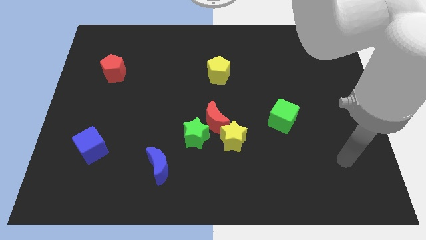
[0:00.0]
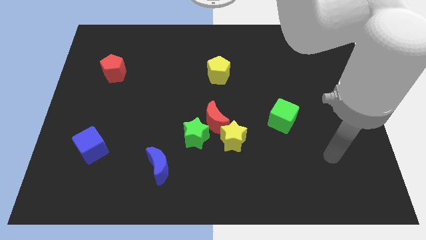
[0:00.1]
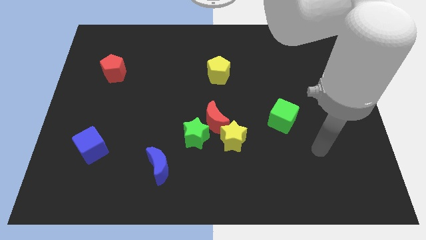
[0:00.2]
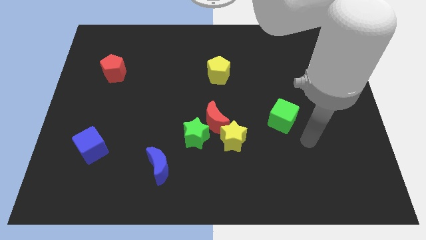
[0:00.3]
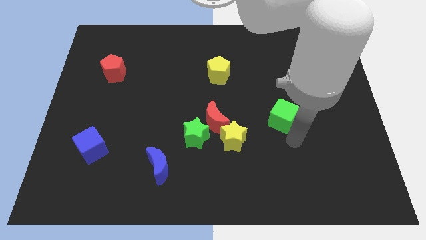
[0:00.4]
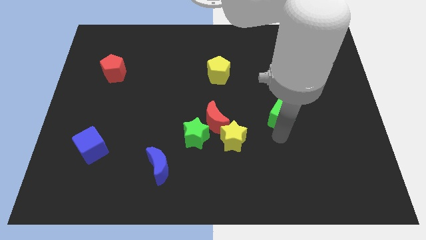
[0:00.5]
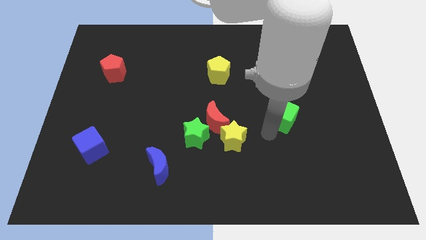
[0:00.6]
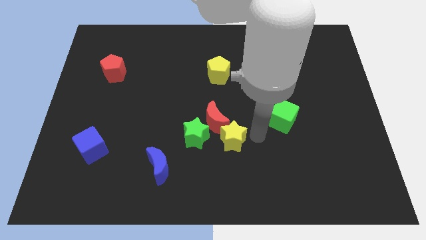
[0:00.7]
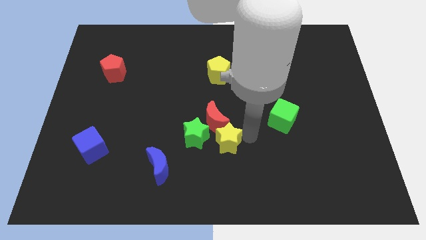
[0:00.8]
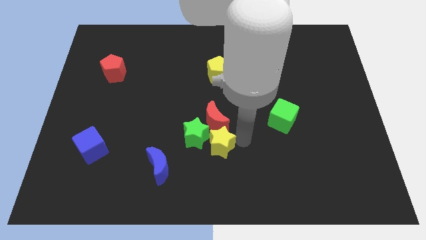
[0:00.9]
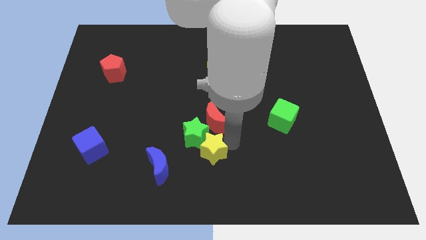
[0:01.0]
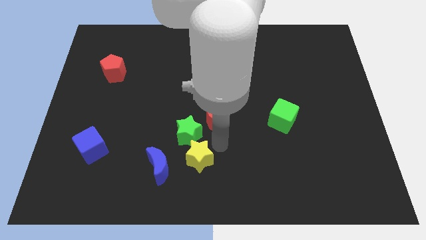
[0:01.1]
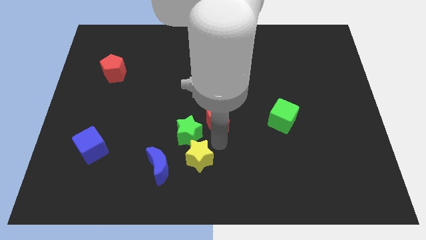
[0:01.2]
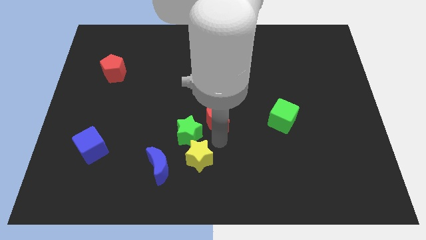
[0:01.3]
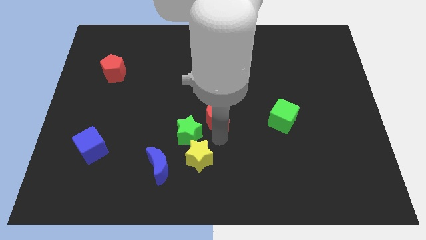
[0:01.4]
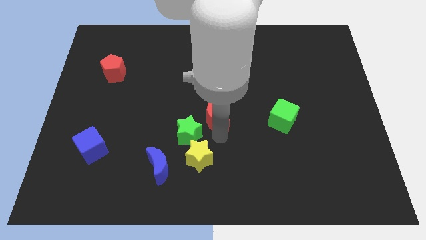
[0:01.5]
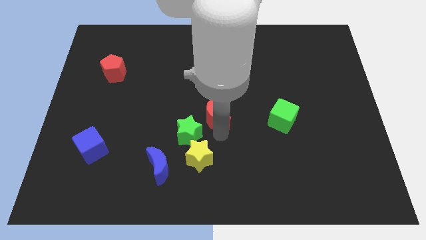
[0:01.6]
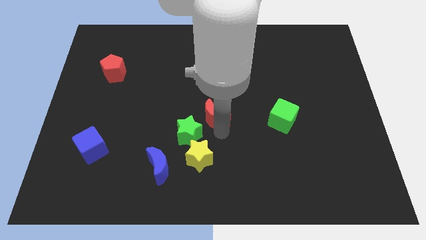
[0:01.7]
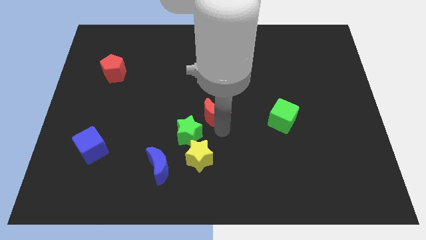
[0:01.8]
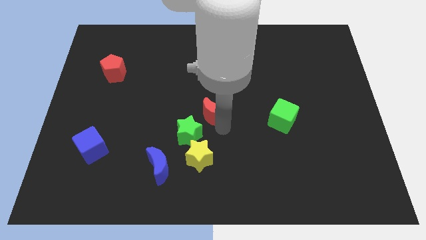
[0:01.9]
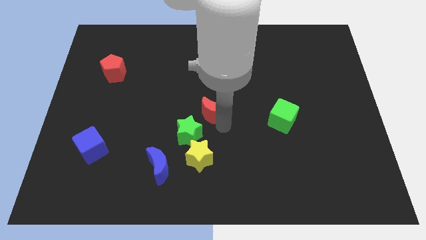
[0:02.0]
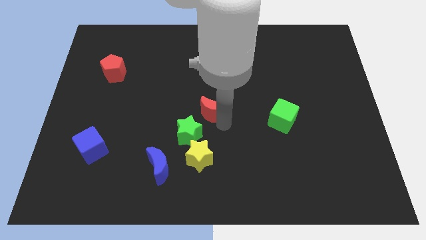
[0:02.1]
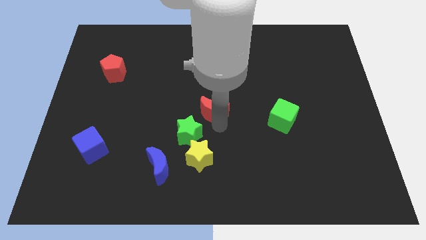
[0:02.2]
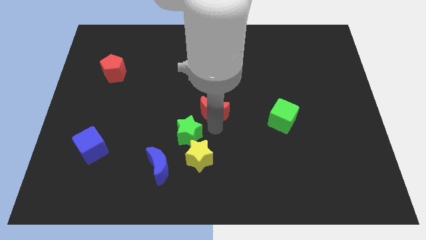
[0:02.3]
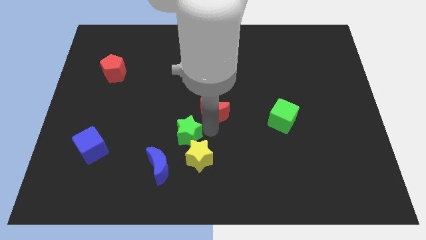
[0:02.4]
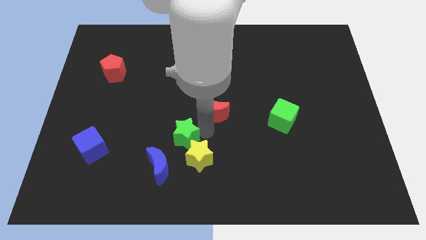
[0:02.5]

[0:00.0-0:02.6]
pull the red moon apart from the green star and yellow star

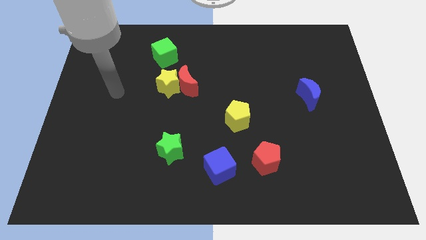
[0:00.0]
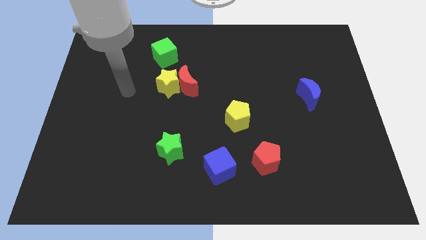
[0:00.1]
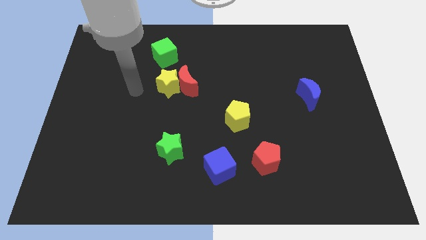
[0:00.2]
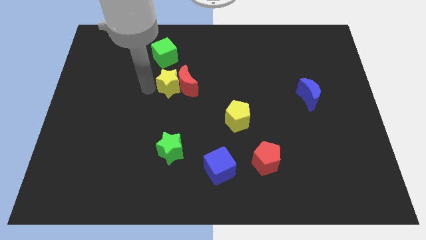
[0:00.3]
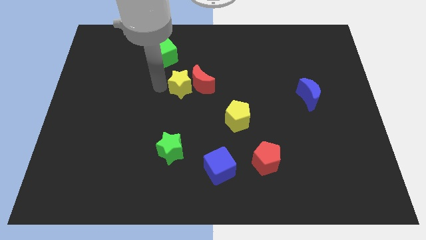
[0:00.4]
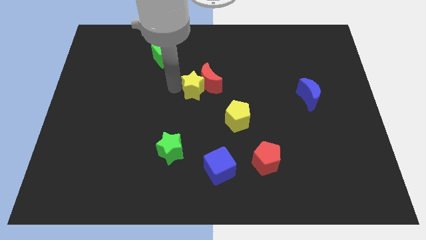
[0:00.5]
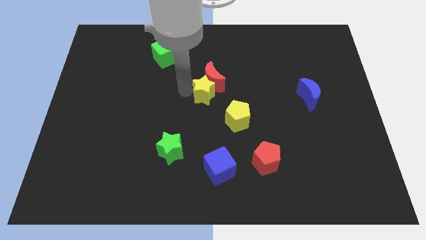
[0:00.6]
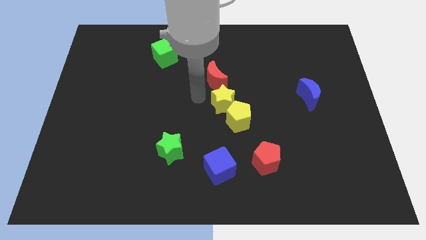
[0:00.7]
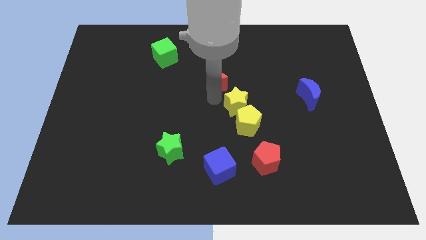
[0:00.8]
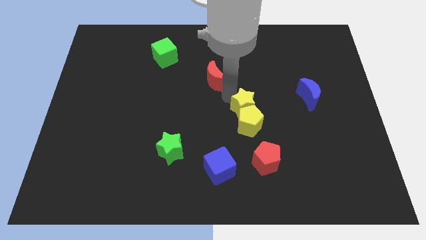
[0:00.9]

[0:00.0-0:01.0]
separate the red moon from the yellow star

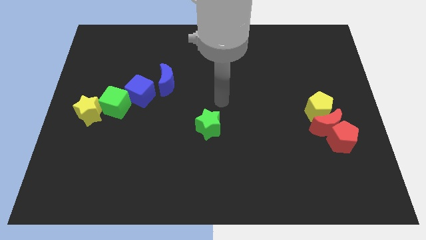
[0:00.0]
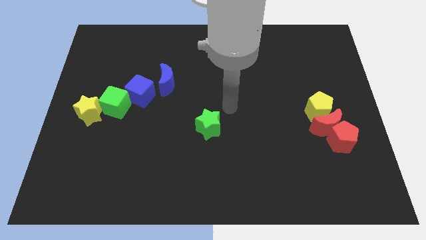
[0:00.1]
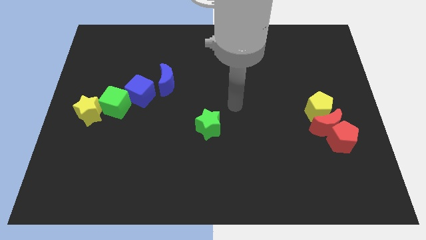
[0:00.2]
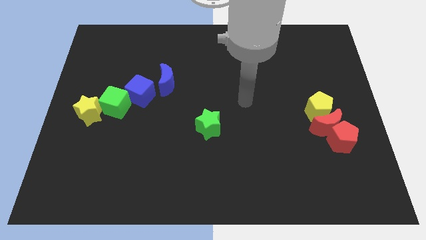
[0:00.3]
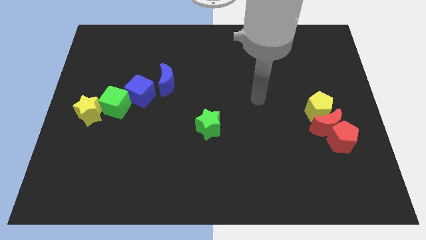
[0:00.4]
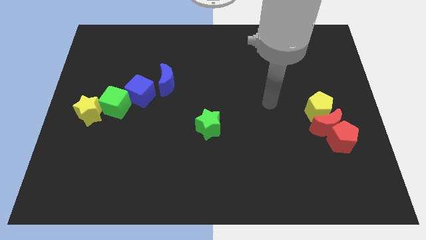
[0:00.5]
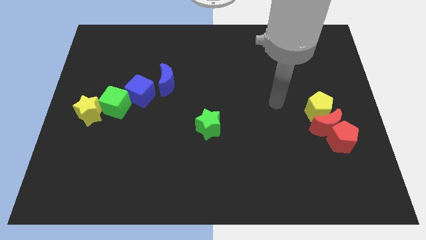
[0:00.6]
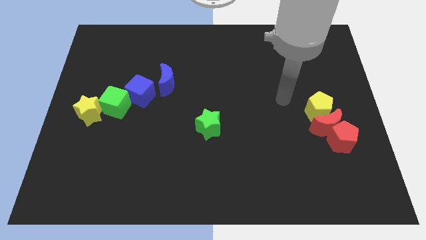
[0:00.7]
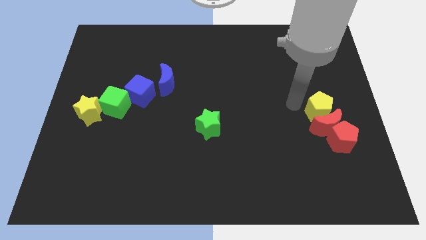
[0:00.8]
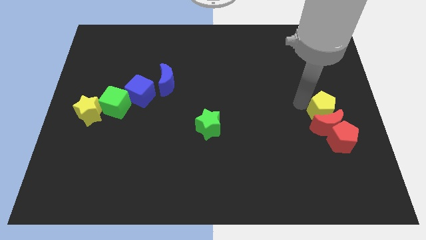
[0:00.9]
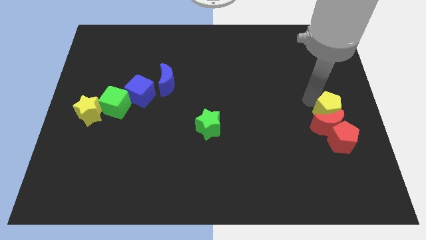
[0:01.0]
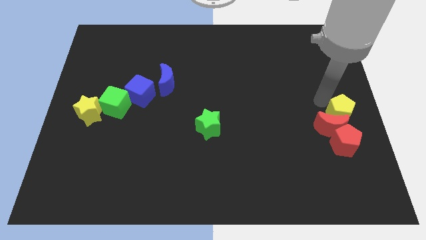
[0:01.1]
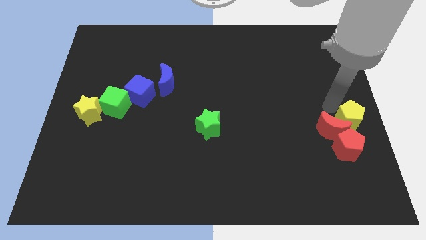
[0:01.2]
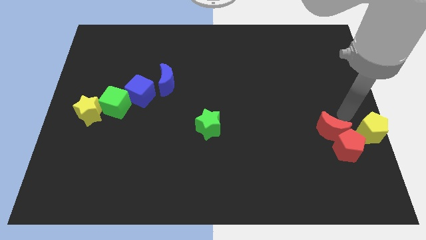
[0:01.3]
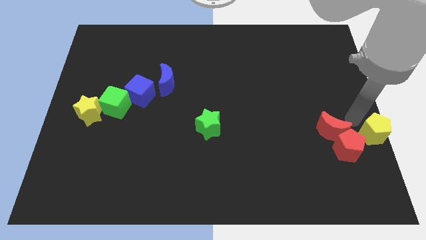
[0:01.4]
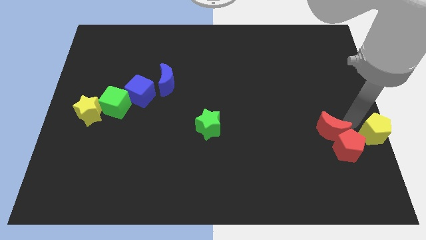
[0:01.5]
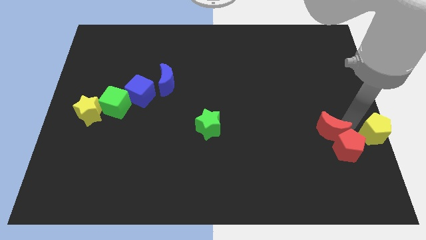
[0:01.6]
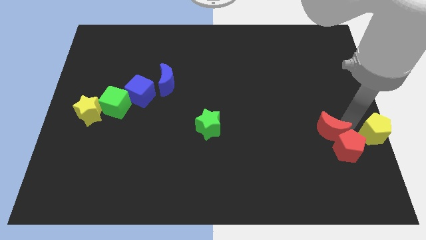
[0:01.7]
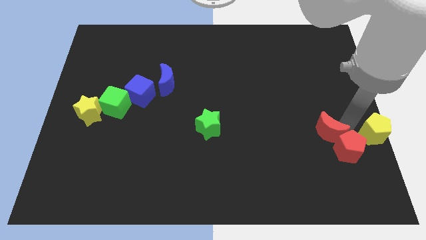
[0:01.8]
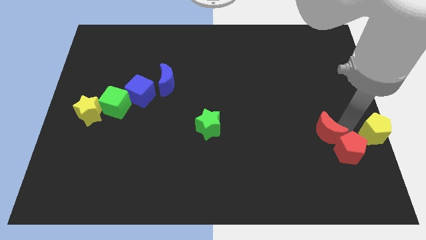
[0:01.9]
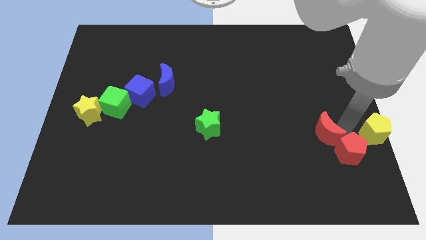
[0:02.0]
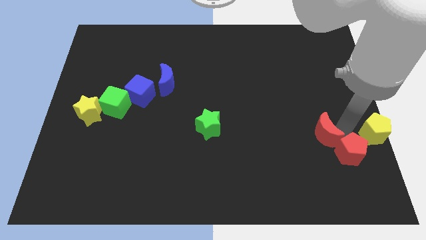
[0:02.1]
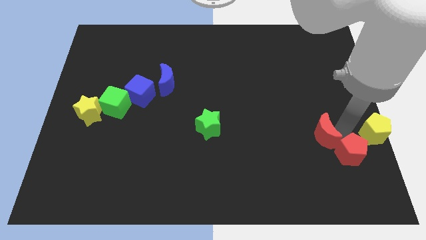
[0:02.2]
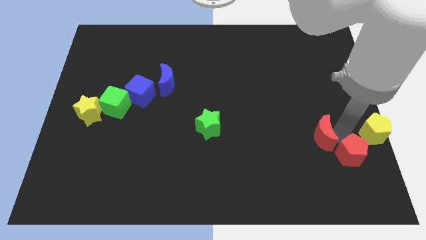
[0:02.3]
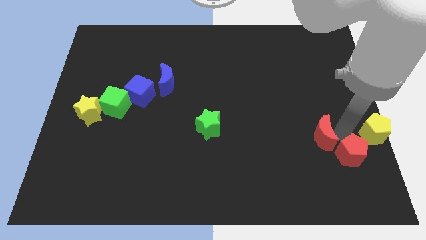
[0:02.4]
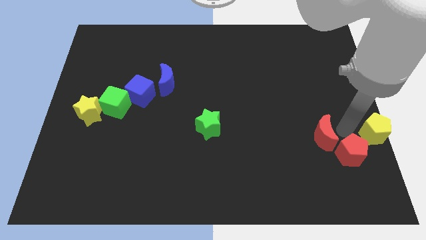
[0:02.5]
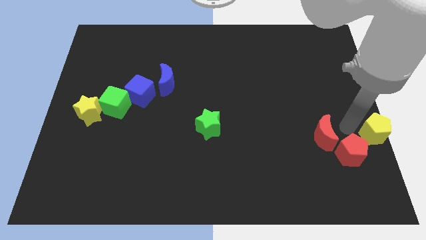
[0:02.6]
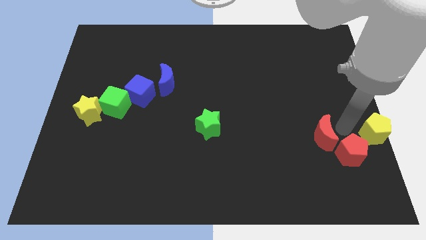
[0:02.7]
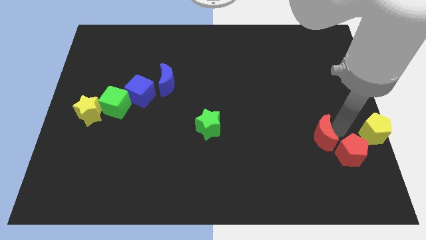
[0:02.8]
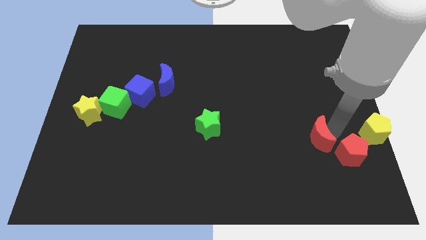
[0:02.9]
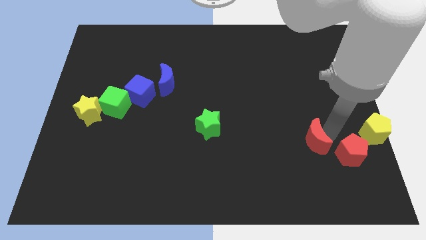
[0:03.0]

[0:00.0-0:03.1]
pull the red moon apart from the red pentagon and yellow pentagon

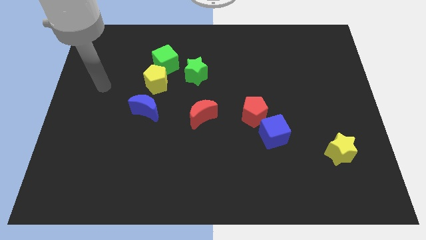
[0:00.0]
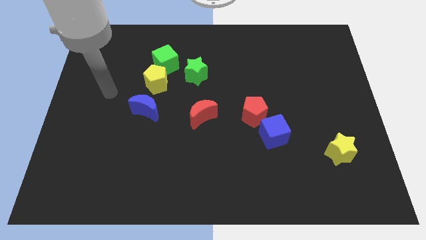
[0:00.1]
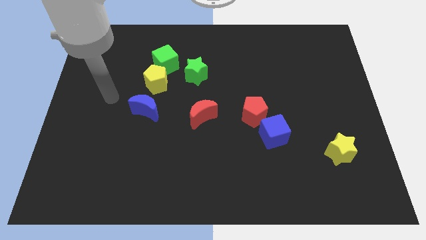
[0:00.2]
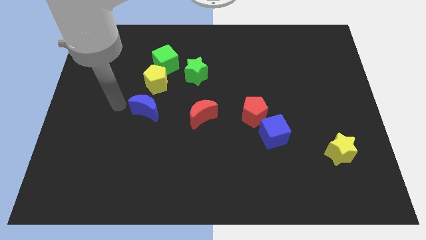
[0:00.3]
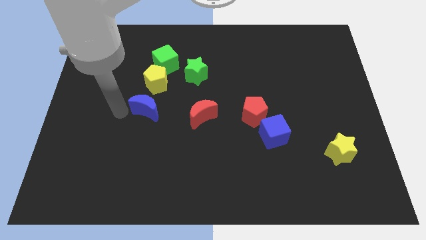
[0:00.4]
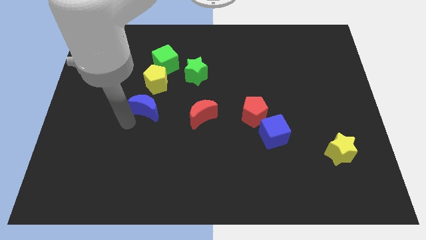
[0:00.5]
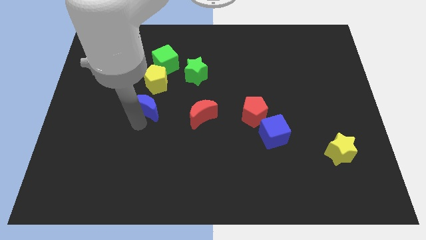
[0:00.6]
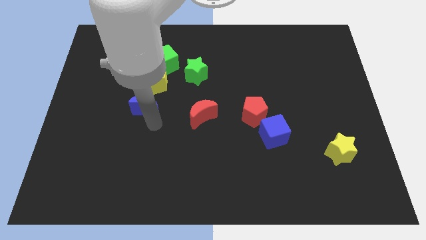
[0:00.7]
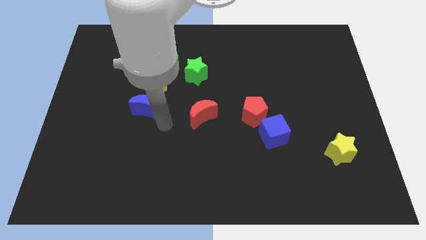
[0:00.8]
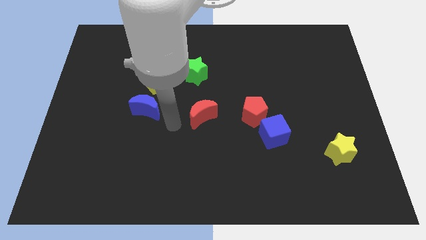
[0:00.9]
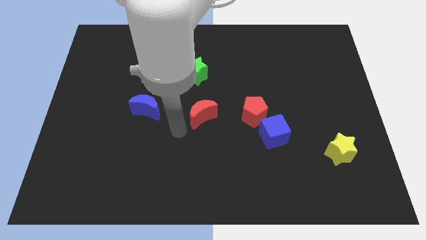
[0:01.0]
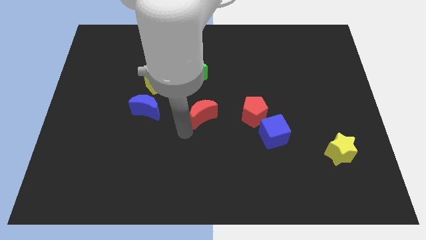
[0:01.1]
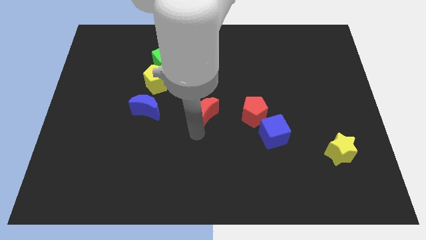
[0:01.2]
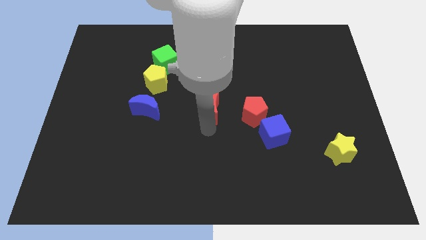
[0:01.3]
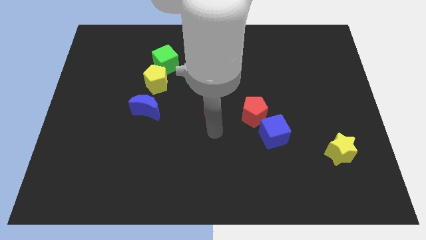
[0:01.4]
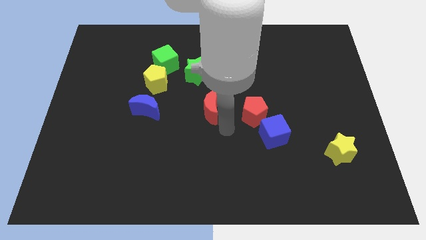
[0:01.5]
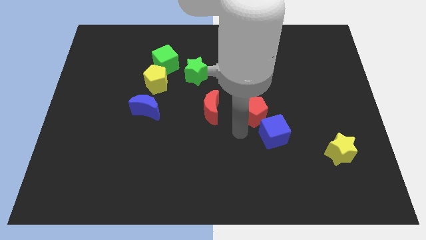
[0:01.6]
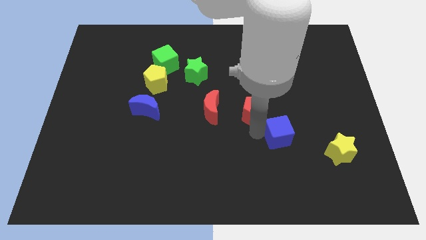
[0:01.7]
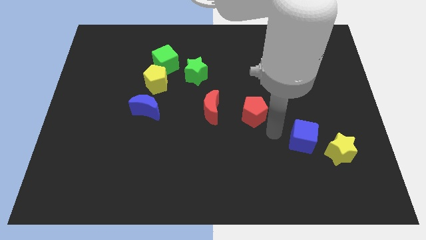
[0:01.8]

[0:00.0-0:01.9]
move the red pentagon away from the blue cube

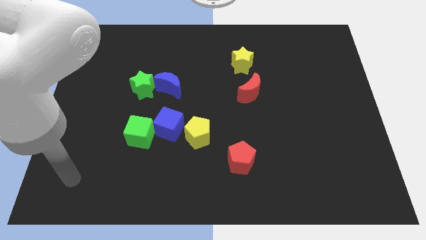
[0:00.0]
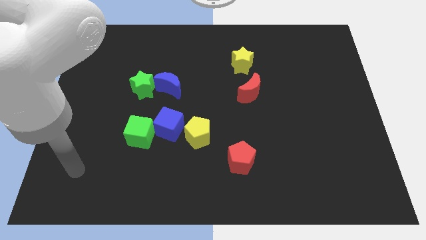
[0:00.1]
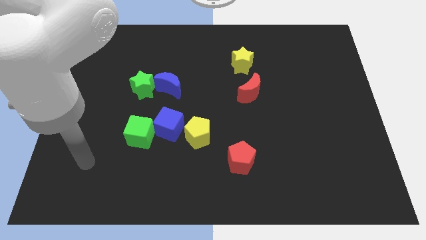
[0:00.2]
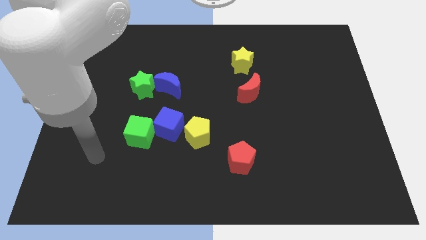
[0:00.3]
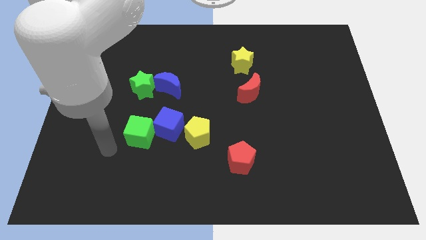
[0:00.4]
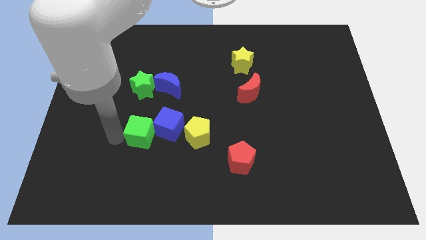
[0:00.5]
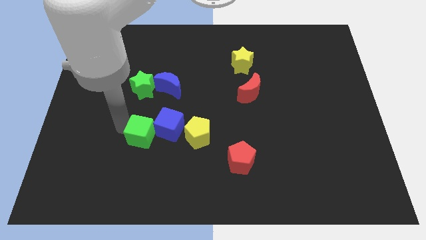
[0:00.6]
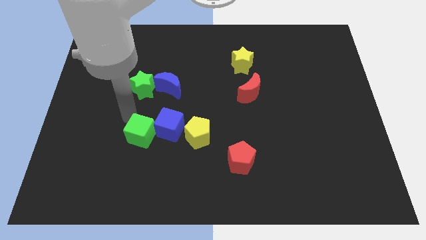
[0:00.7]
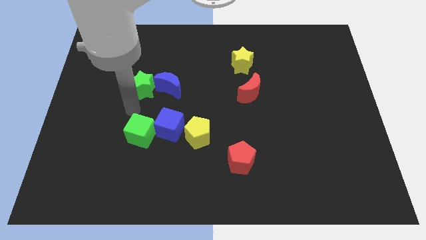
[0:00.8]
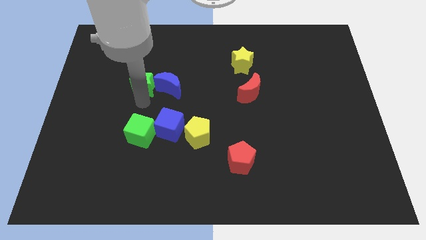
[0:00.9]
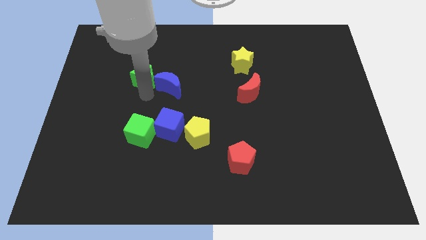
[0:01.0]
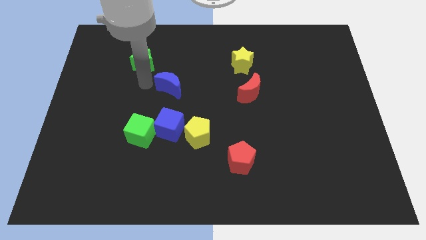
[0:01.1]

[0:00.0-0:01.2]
move the blue moon away from the green star
